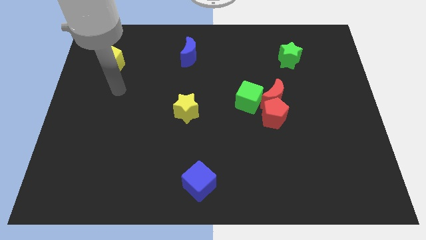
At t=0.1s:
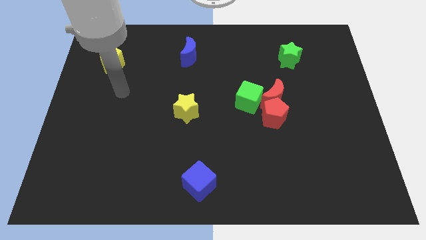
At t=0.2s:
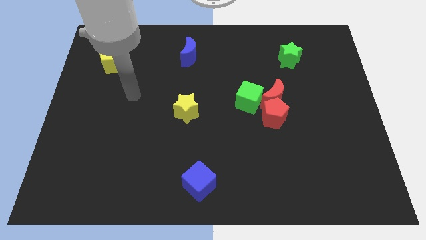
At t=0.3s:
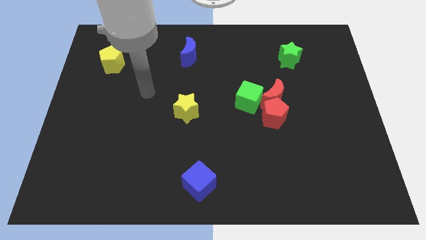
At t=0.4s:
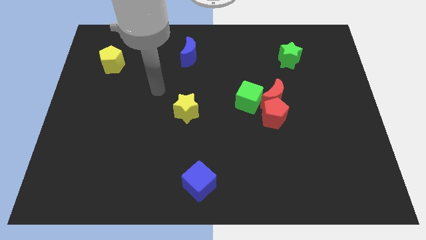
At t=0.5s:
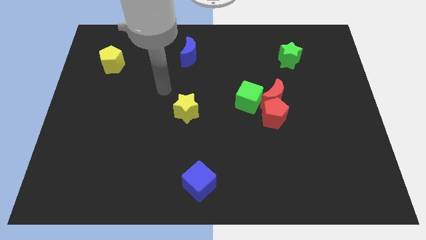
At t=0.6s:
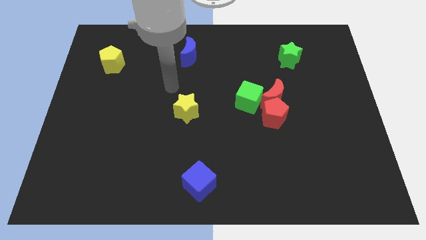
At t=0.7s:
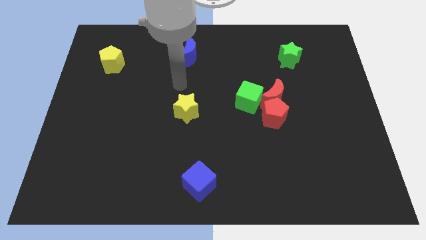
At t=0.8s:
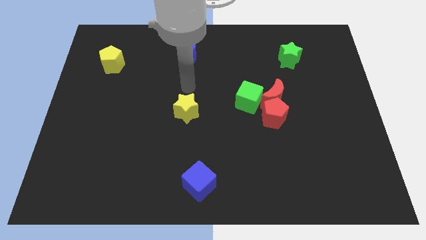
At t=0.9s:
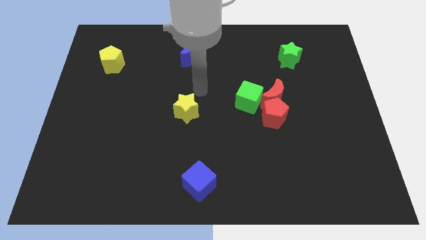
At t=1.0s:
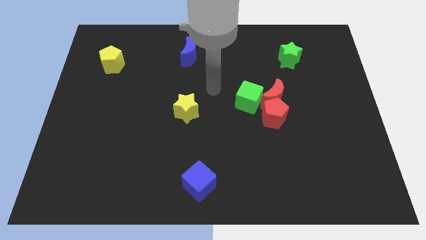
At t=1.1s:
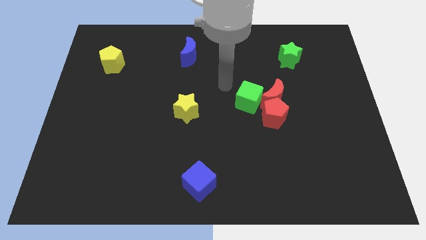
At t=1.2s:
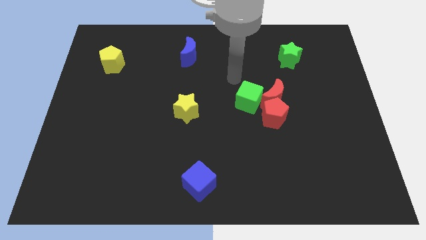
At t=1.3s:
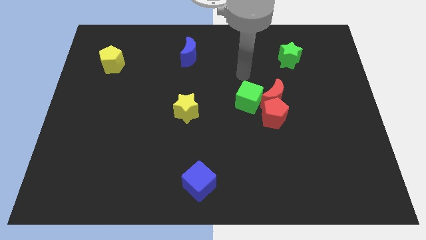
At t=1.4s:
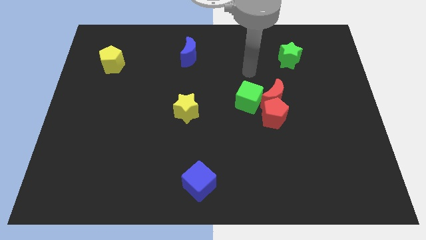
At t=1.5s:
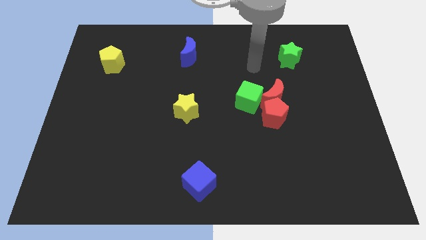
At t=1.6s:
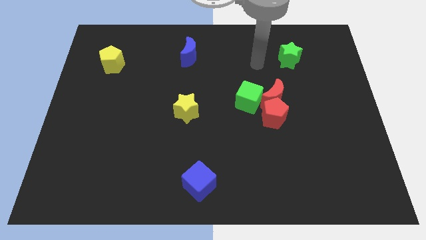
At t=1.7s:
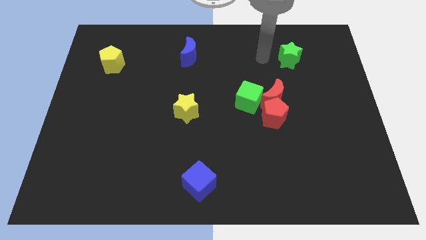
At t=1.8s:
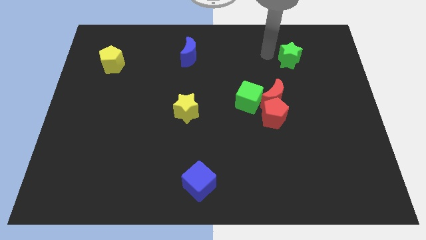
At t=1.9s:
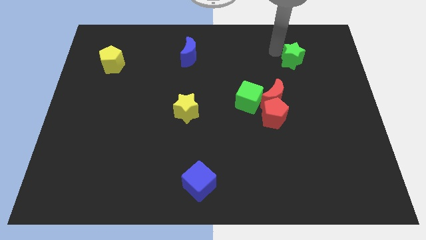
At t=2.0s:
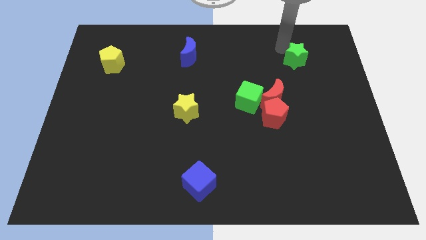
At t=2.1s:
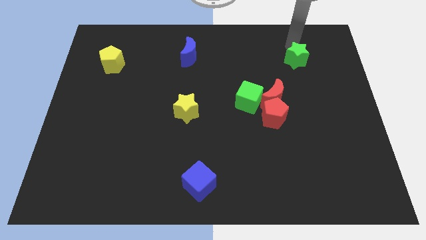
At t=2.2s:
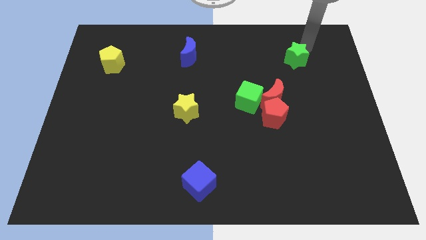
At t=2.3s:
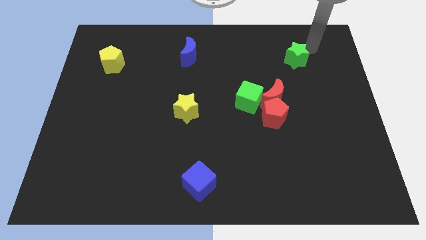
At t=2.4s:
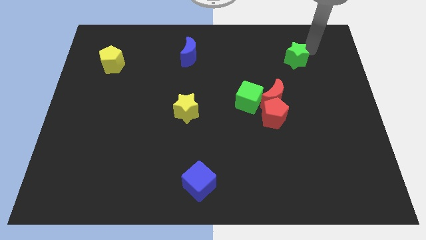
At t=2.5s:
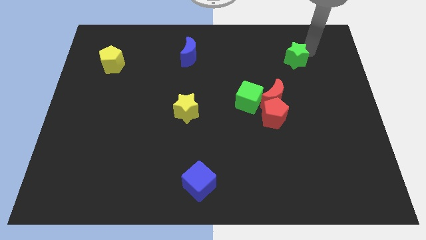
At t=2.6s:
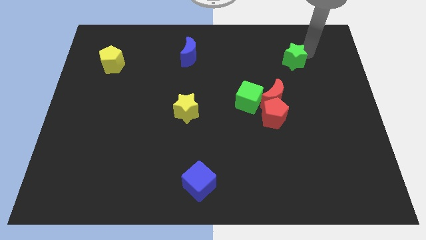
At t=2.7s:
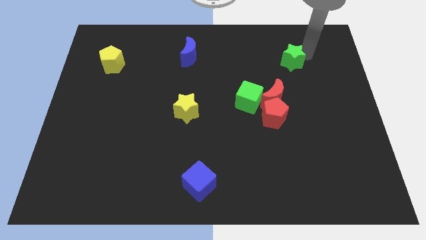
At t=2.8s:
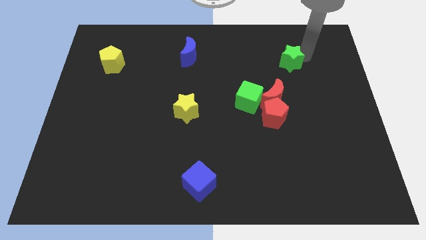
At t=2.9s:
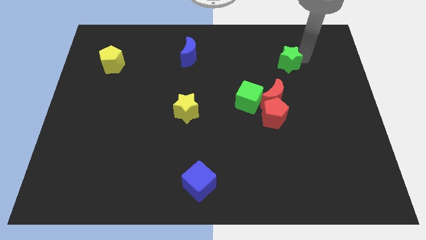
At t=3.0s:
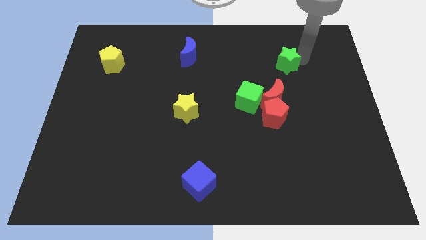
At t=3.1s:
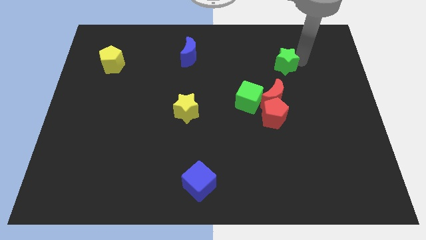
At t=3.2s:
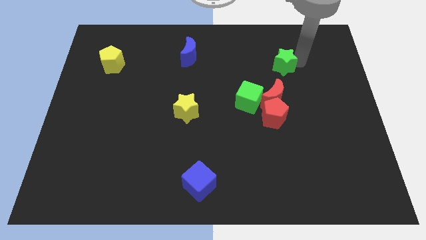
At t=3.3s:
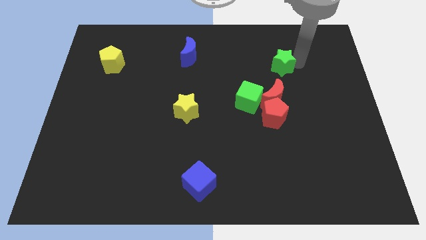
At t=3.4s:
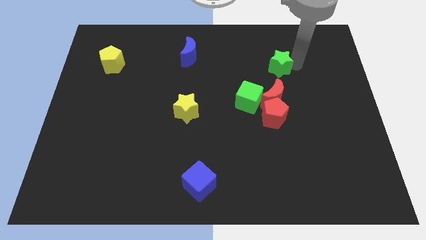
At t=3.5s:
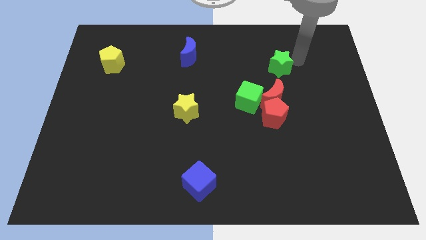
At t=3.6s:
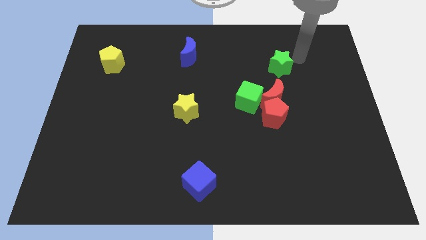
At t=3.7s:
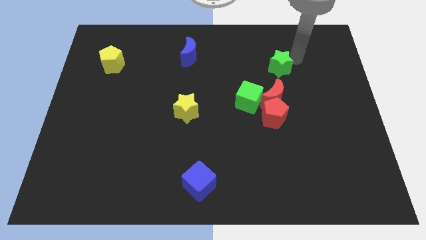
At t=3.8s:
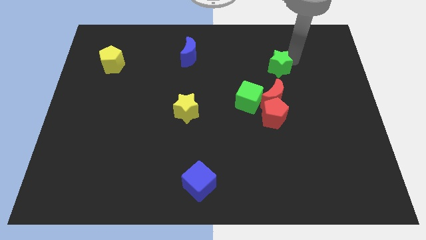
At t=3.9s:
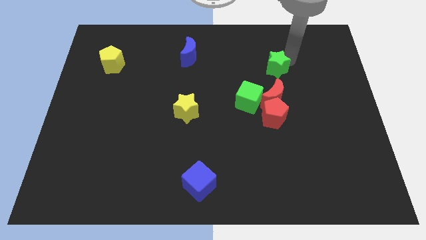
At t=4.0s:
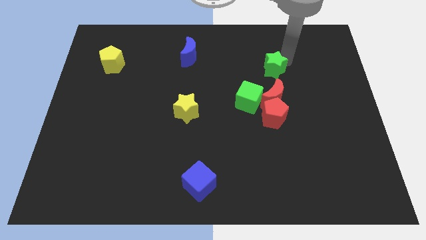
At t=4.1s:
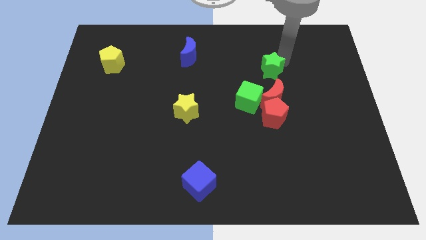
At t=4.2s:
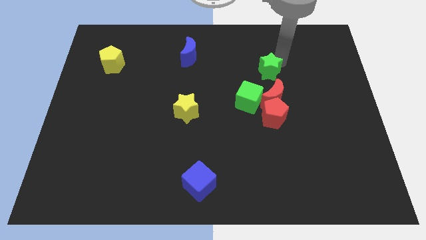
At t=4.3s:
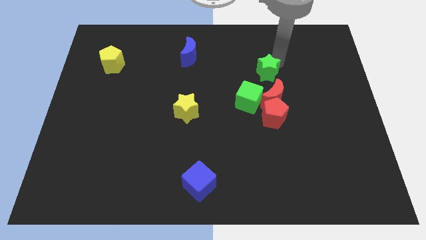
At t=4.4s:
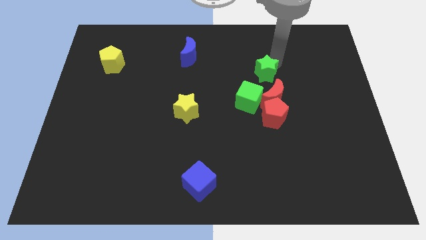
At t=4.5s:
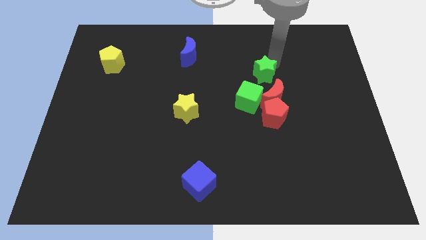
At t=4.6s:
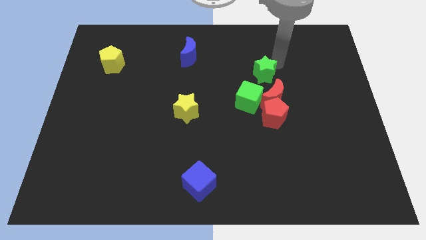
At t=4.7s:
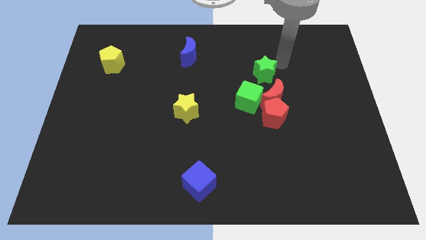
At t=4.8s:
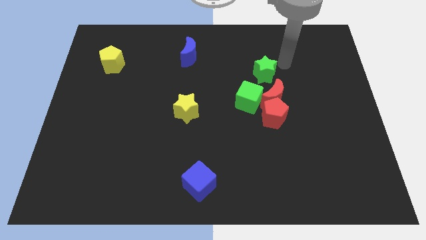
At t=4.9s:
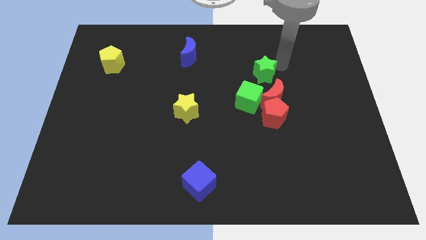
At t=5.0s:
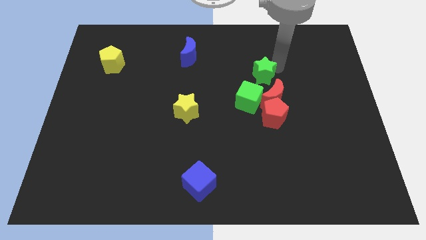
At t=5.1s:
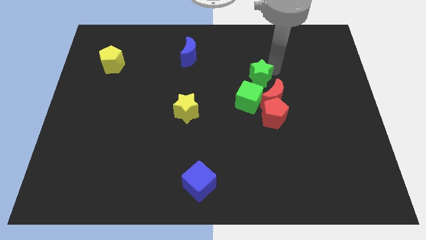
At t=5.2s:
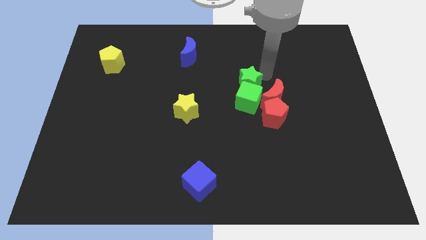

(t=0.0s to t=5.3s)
push the green star to the middle of the board

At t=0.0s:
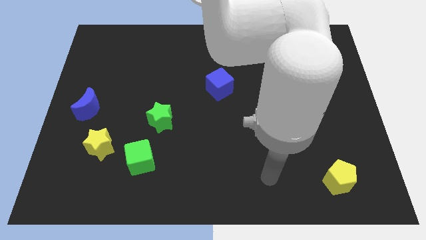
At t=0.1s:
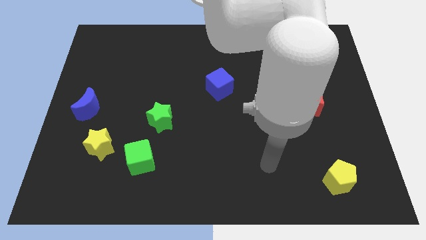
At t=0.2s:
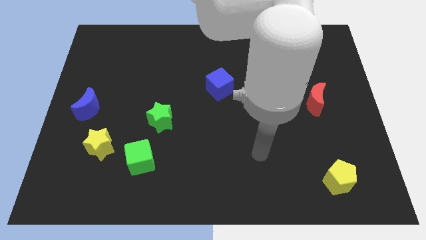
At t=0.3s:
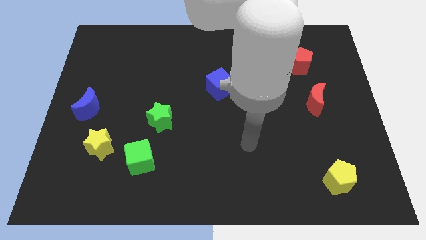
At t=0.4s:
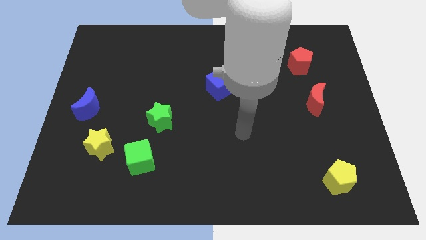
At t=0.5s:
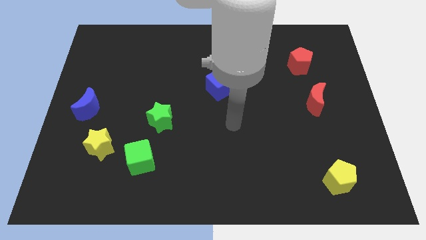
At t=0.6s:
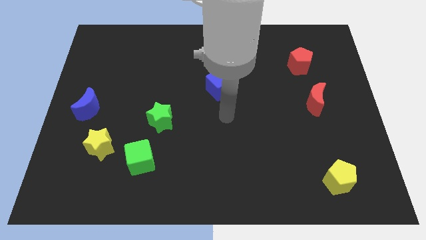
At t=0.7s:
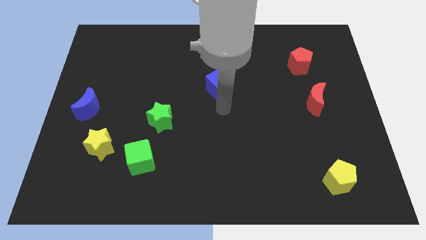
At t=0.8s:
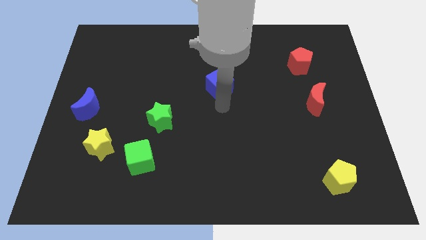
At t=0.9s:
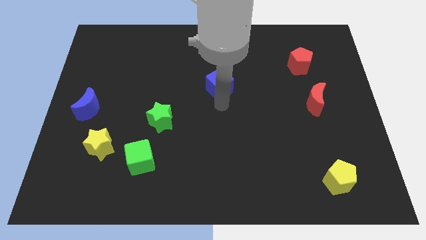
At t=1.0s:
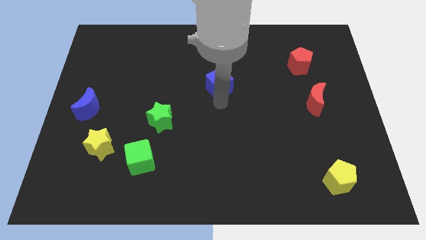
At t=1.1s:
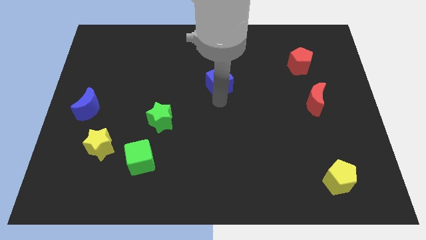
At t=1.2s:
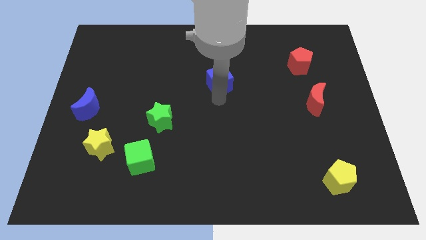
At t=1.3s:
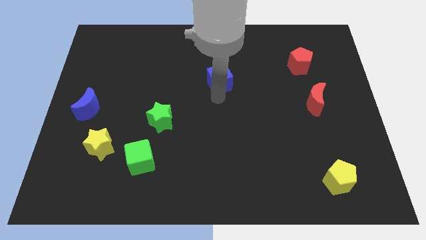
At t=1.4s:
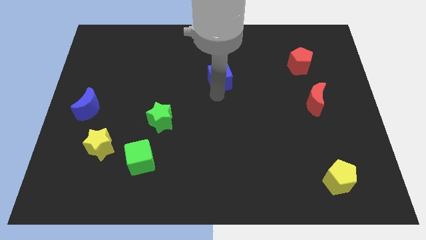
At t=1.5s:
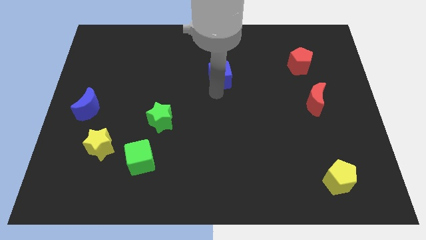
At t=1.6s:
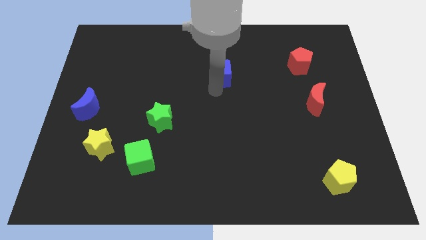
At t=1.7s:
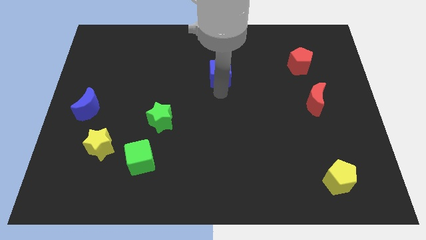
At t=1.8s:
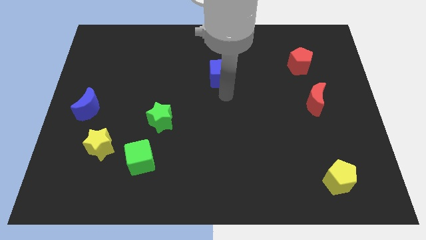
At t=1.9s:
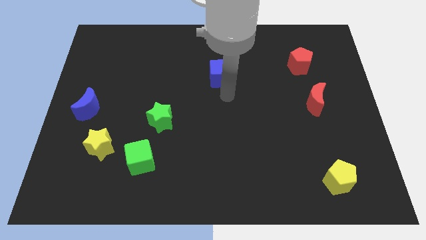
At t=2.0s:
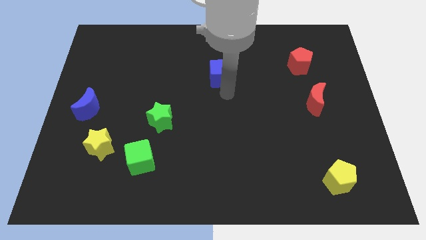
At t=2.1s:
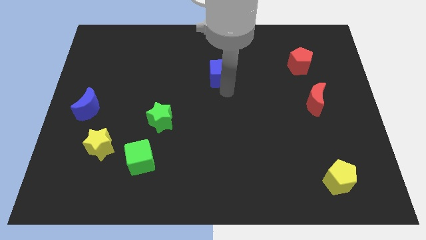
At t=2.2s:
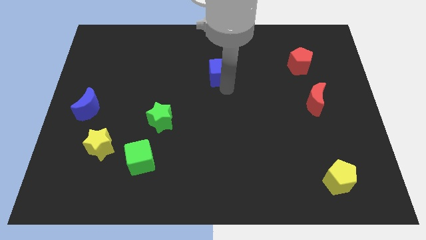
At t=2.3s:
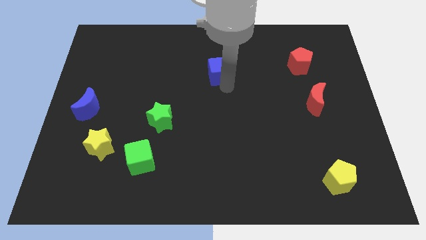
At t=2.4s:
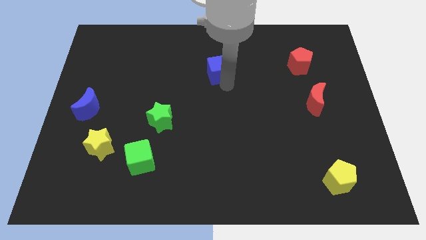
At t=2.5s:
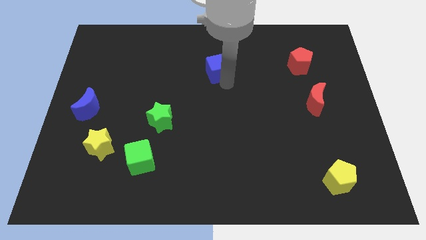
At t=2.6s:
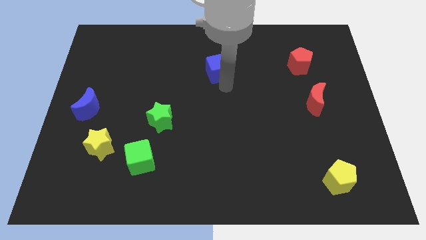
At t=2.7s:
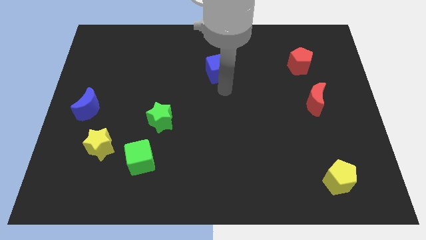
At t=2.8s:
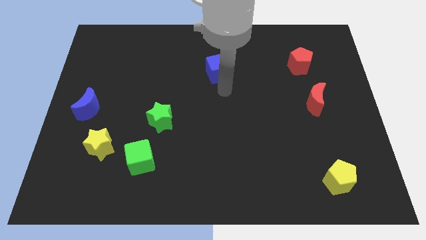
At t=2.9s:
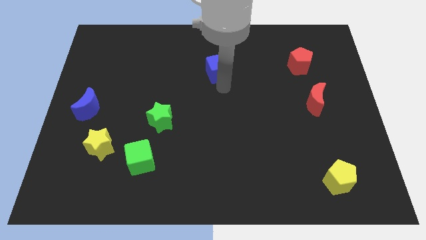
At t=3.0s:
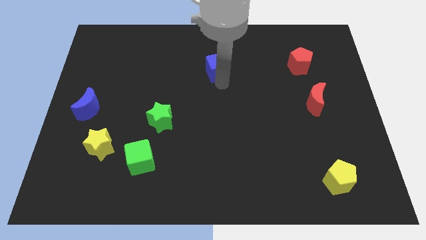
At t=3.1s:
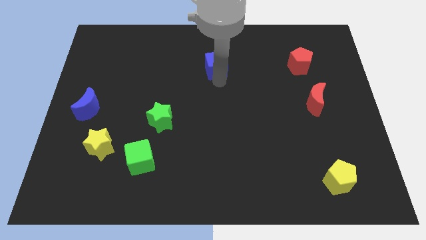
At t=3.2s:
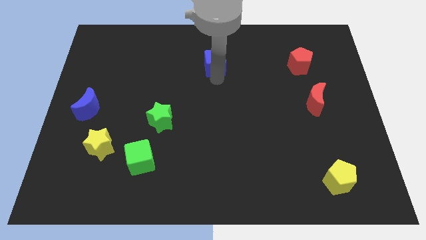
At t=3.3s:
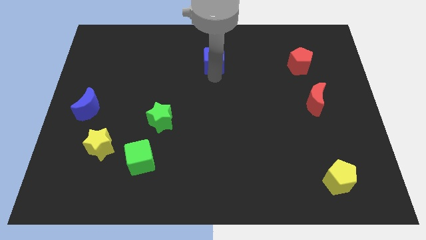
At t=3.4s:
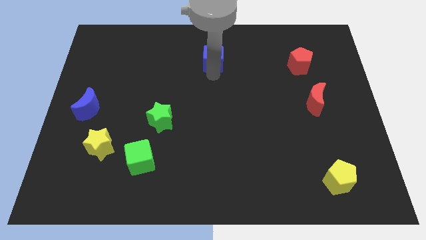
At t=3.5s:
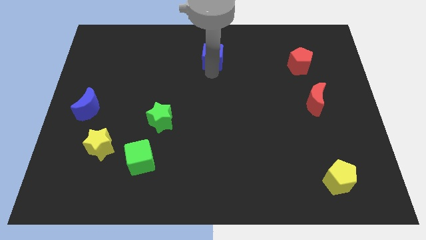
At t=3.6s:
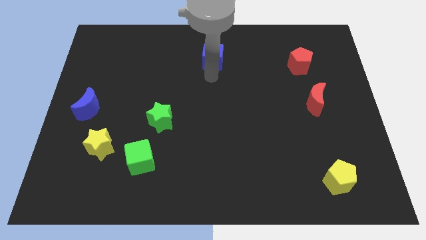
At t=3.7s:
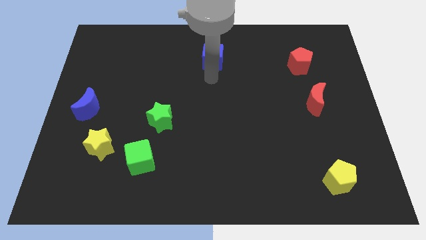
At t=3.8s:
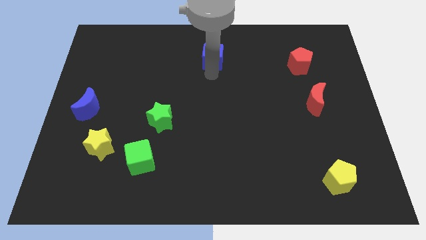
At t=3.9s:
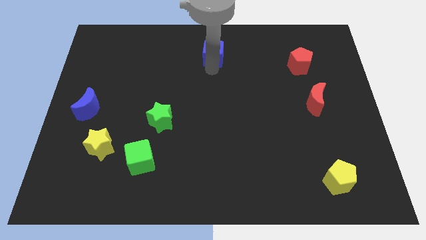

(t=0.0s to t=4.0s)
slide the blue cube to the towards your base
